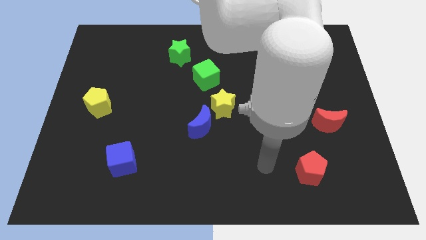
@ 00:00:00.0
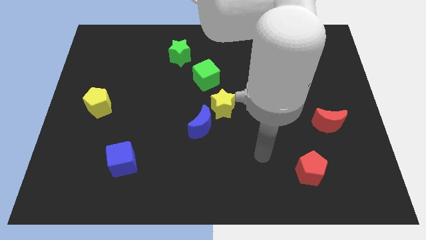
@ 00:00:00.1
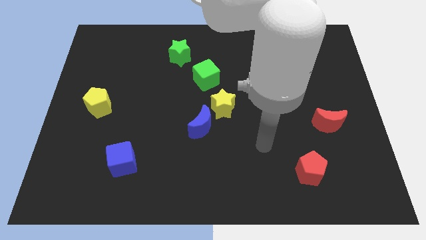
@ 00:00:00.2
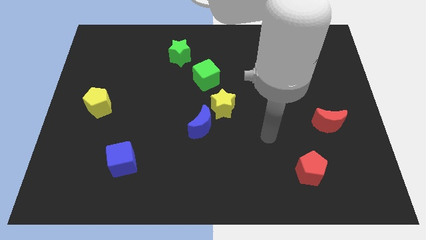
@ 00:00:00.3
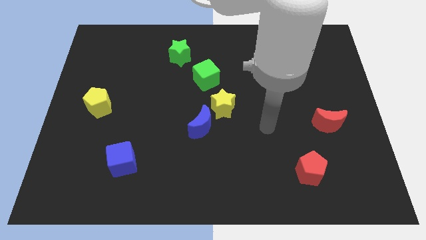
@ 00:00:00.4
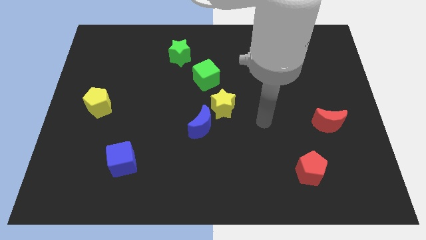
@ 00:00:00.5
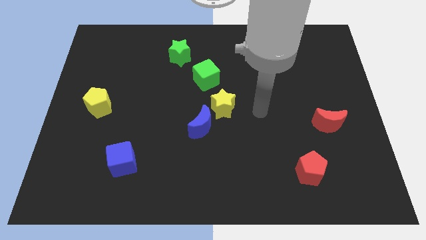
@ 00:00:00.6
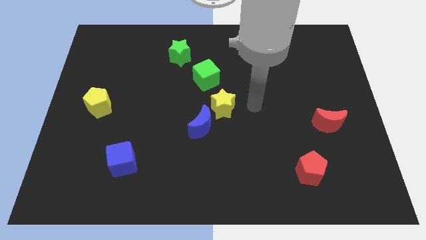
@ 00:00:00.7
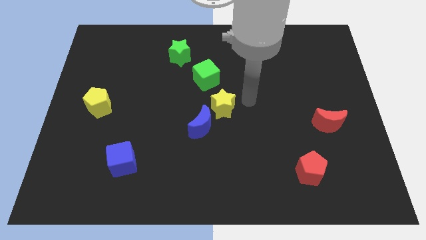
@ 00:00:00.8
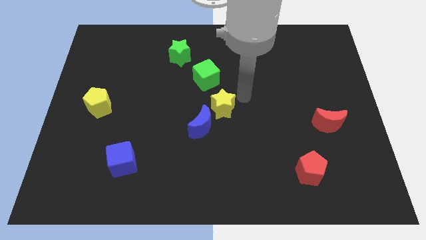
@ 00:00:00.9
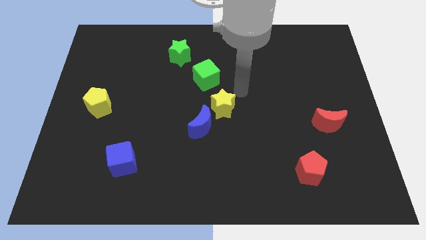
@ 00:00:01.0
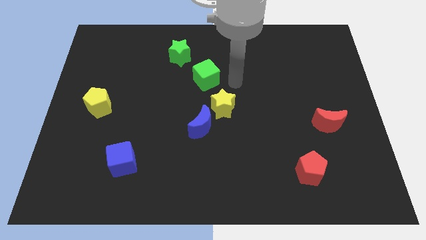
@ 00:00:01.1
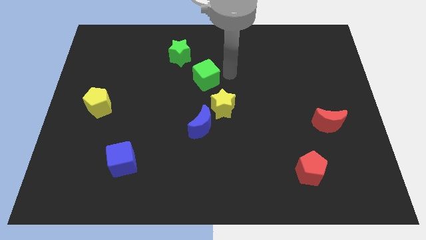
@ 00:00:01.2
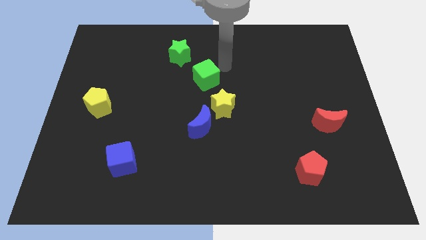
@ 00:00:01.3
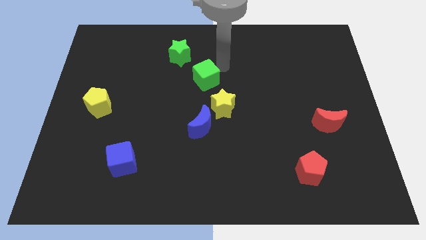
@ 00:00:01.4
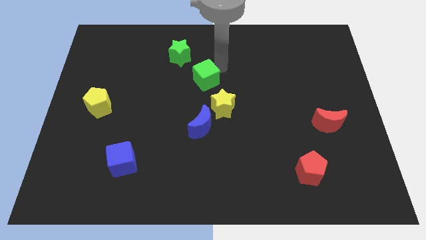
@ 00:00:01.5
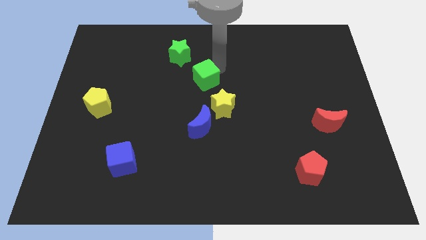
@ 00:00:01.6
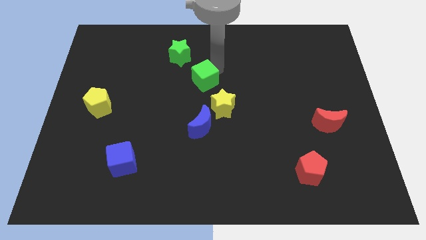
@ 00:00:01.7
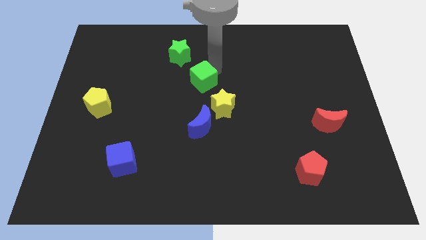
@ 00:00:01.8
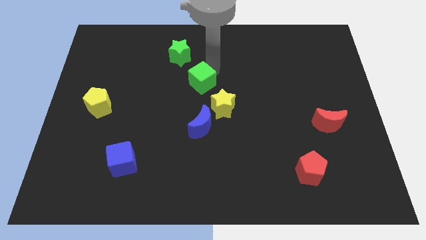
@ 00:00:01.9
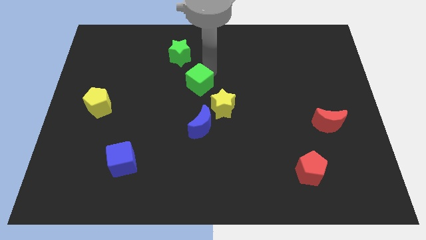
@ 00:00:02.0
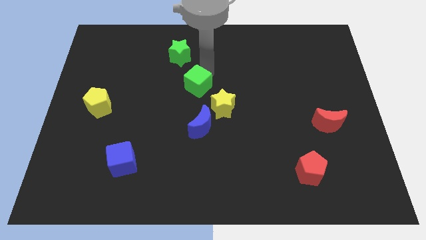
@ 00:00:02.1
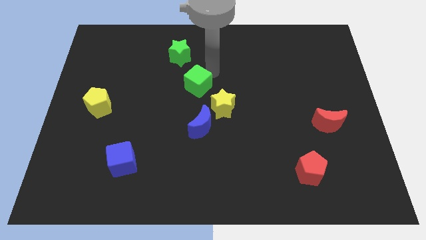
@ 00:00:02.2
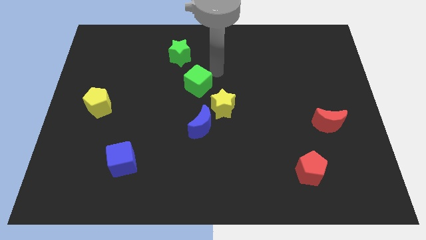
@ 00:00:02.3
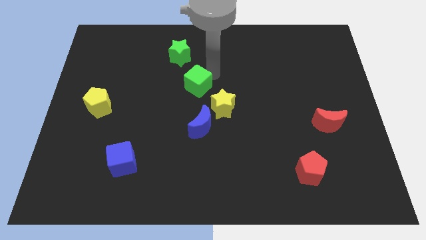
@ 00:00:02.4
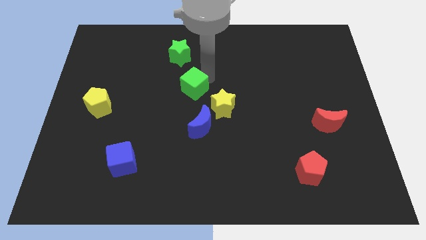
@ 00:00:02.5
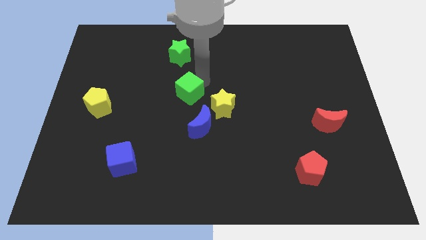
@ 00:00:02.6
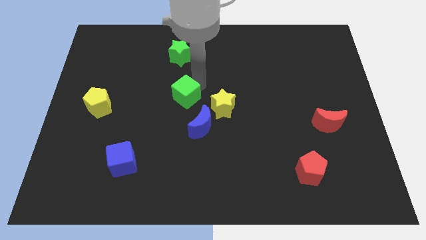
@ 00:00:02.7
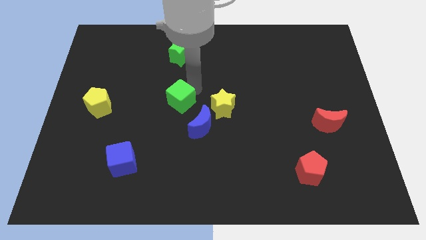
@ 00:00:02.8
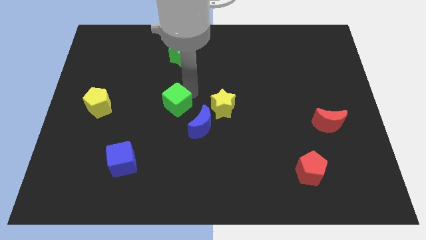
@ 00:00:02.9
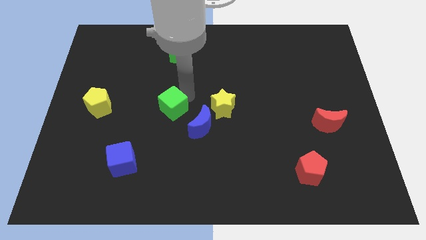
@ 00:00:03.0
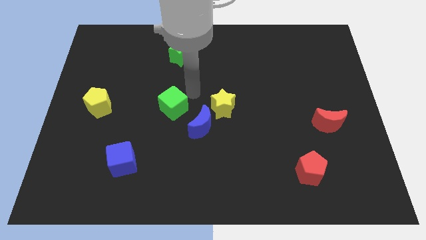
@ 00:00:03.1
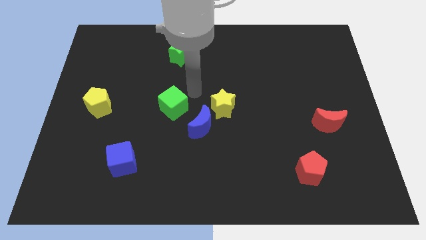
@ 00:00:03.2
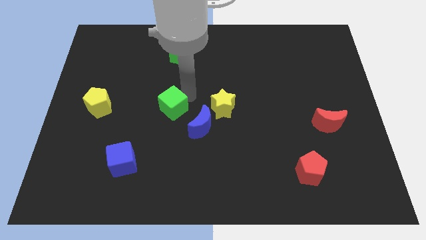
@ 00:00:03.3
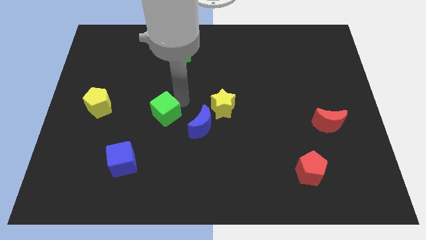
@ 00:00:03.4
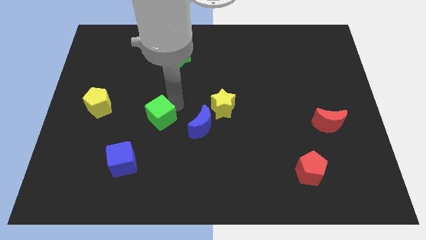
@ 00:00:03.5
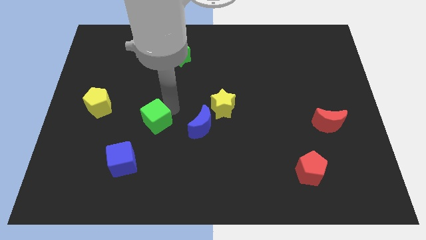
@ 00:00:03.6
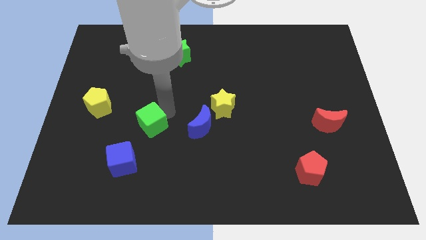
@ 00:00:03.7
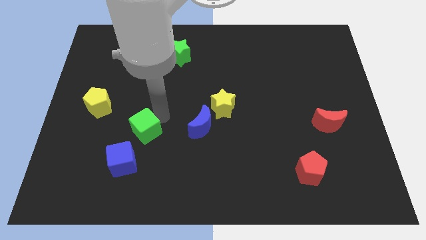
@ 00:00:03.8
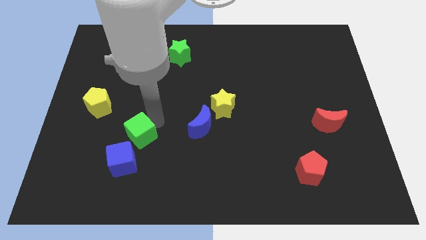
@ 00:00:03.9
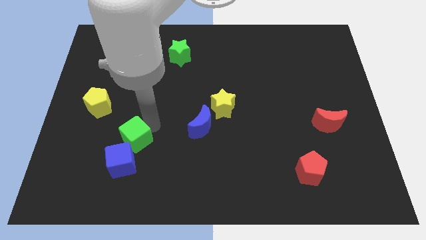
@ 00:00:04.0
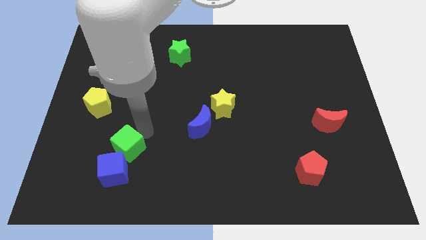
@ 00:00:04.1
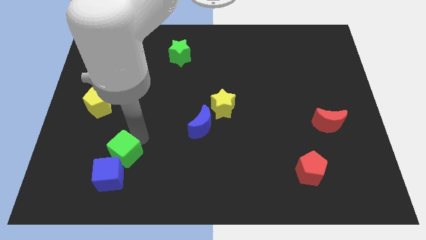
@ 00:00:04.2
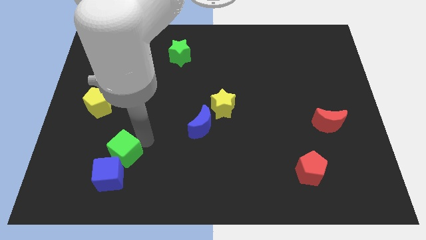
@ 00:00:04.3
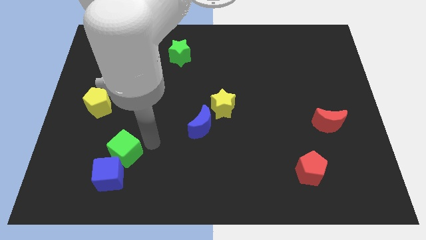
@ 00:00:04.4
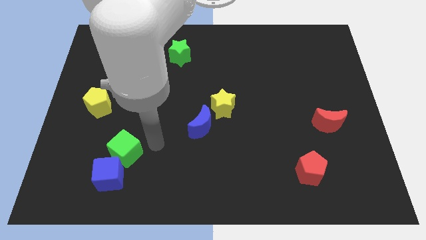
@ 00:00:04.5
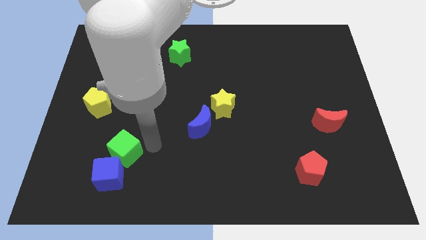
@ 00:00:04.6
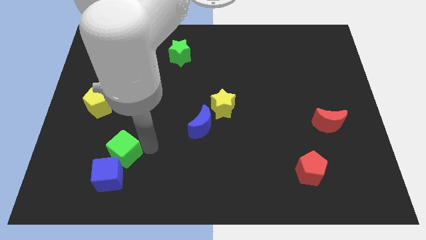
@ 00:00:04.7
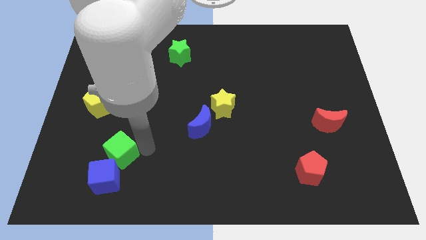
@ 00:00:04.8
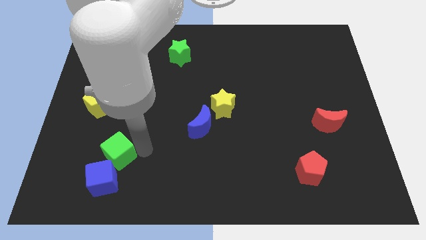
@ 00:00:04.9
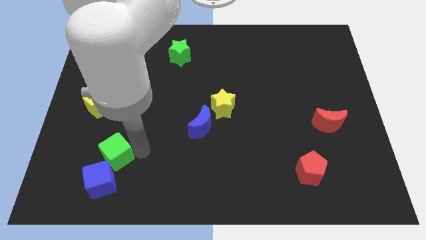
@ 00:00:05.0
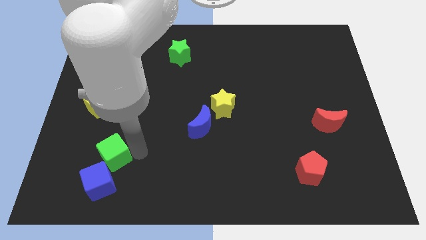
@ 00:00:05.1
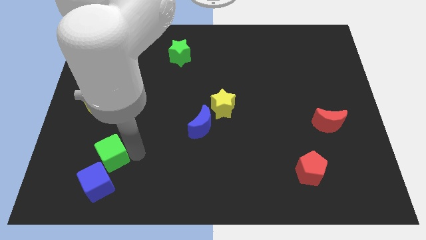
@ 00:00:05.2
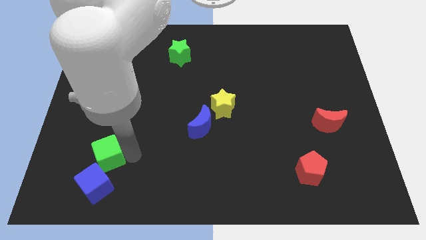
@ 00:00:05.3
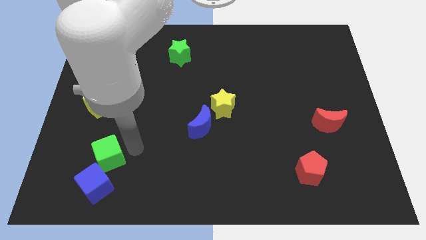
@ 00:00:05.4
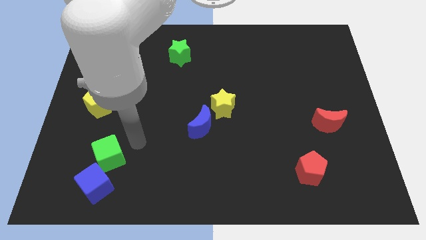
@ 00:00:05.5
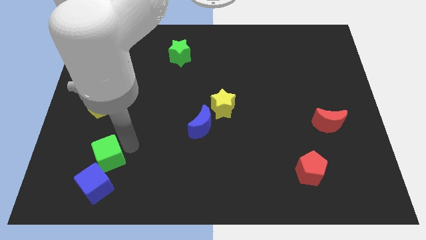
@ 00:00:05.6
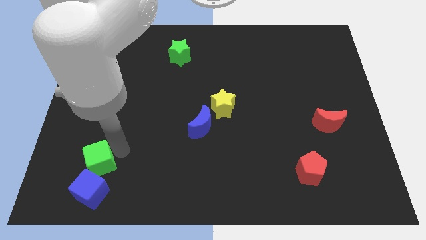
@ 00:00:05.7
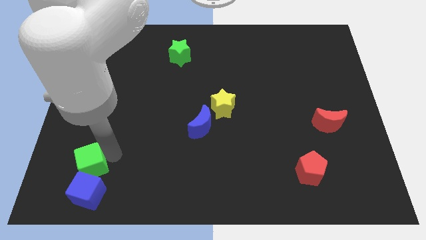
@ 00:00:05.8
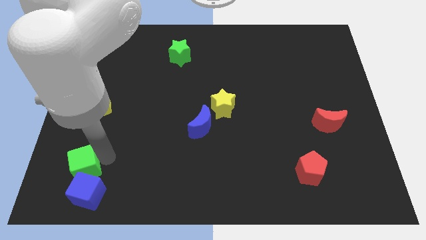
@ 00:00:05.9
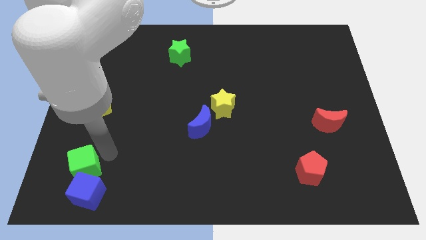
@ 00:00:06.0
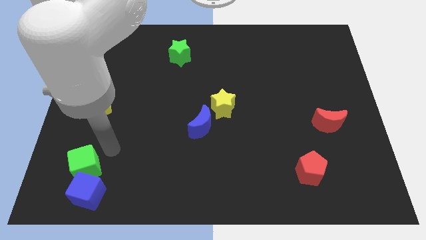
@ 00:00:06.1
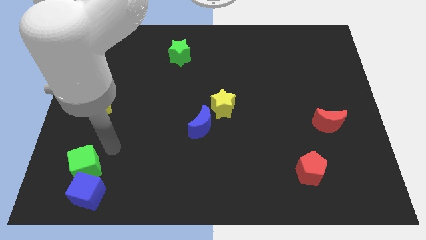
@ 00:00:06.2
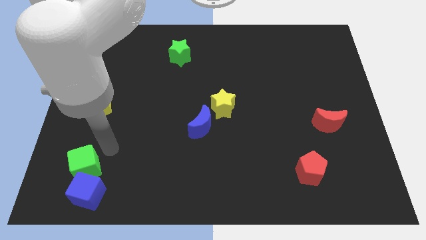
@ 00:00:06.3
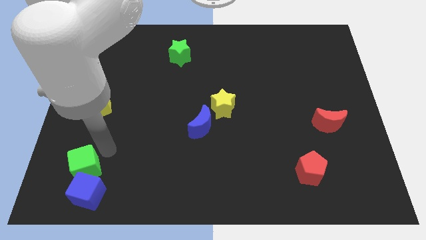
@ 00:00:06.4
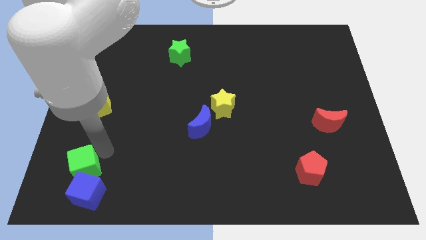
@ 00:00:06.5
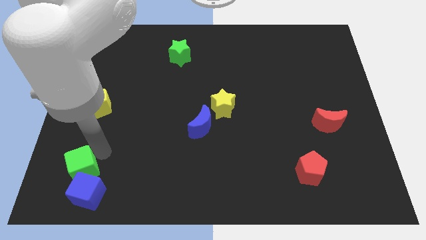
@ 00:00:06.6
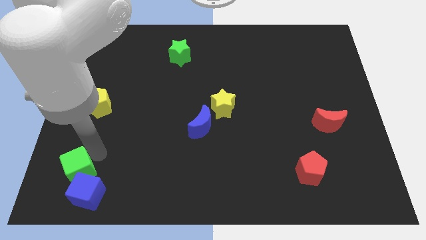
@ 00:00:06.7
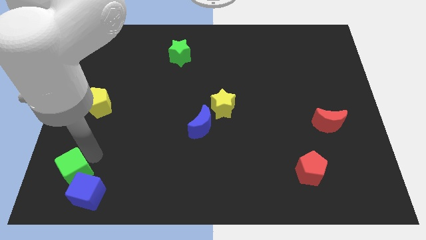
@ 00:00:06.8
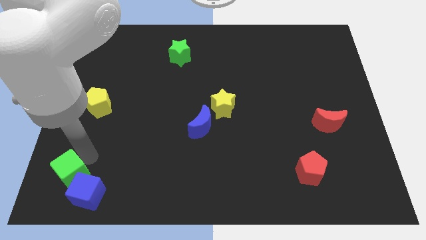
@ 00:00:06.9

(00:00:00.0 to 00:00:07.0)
push the green cube to the bottom left corner
